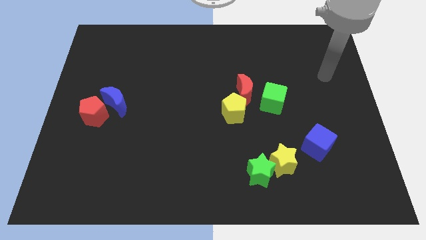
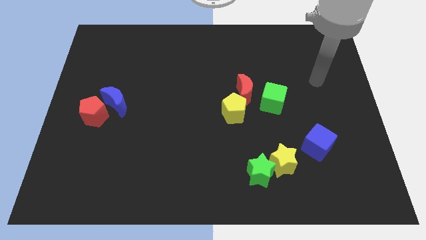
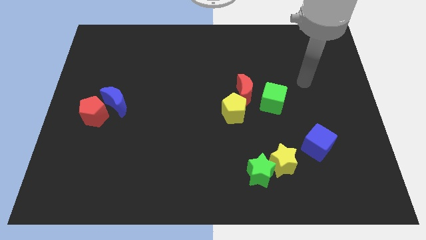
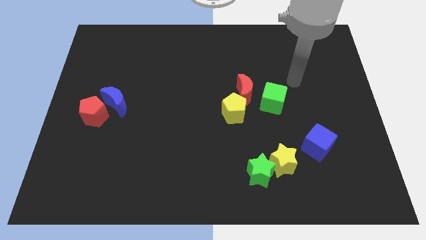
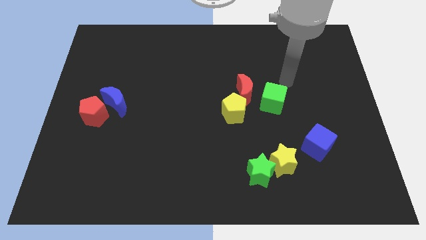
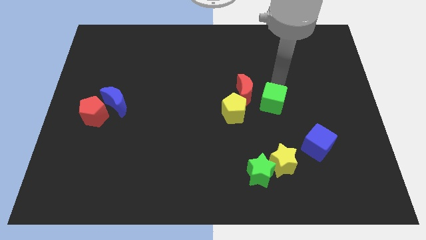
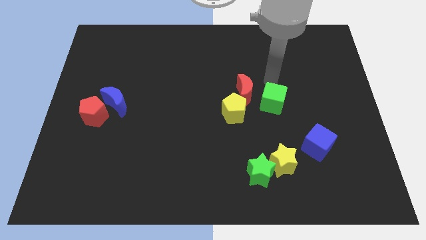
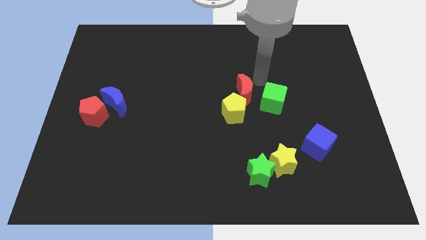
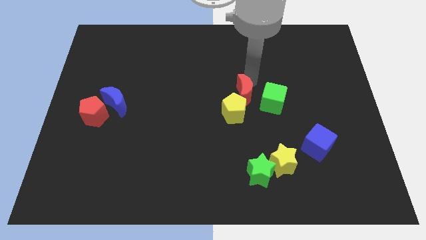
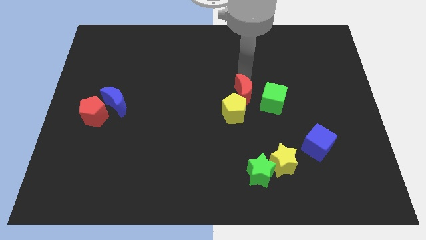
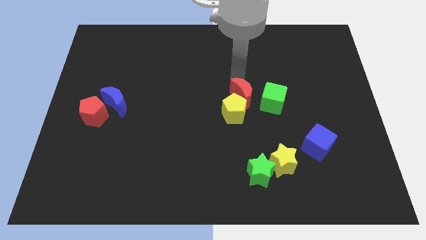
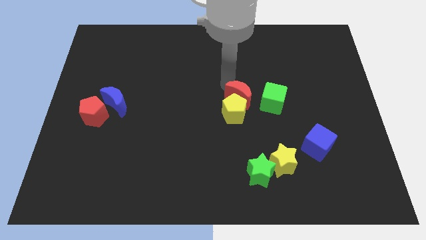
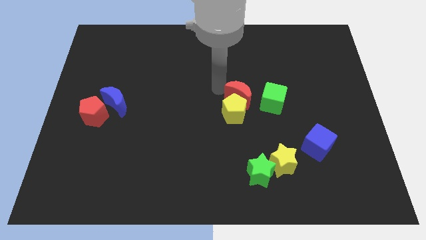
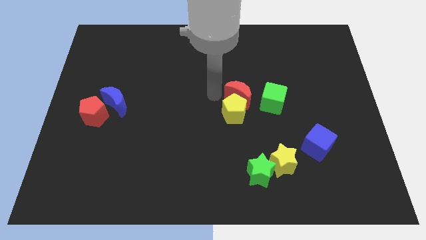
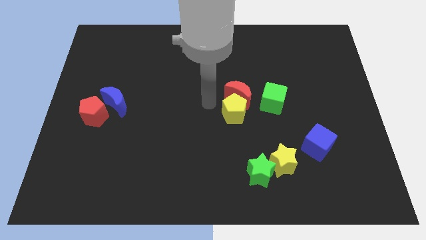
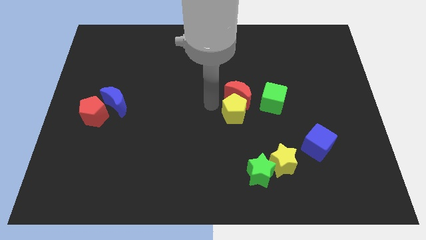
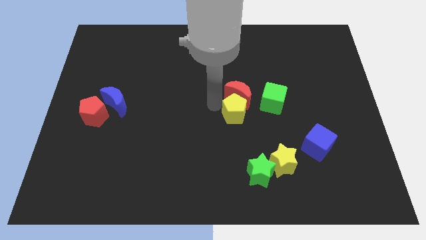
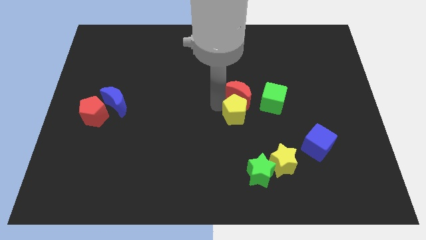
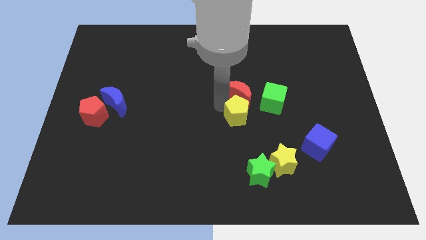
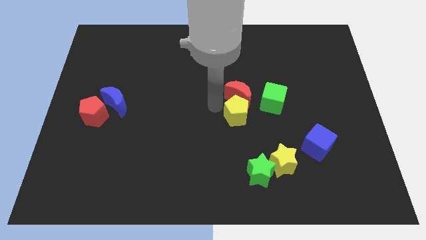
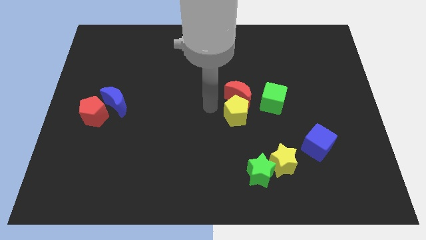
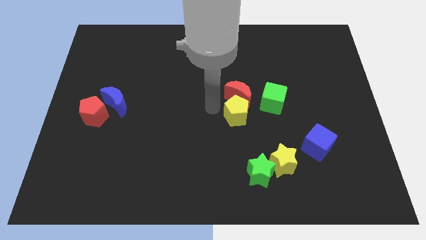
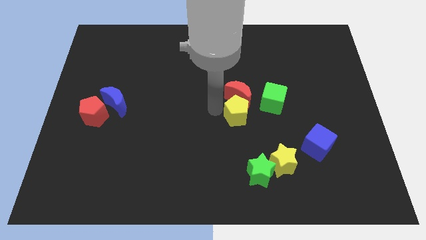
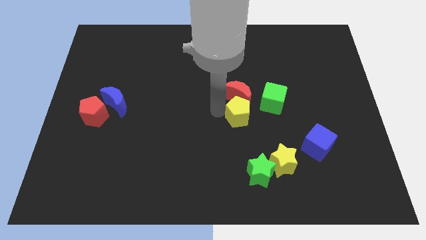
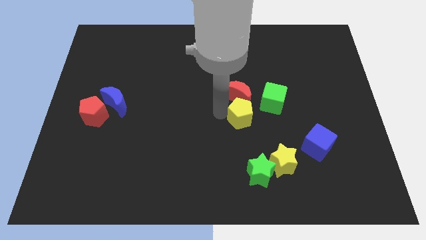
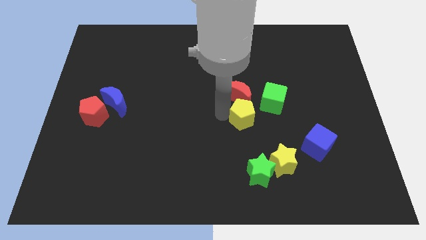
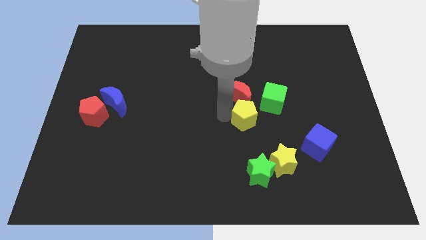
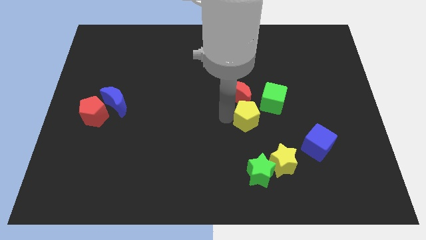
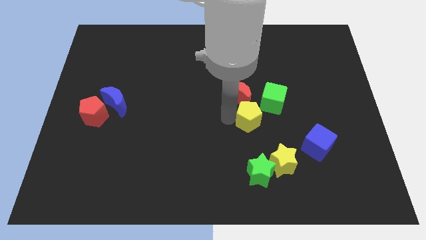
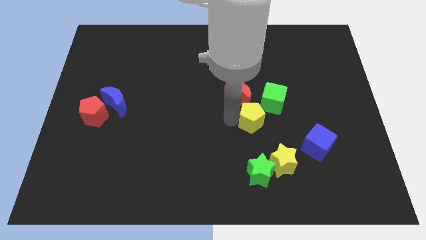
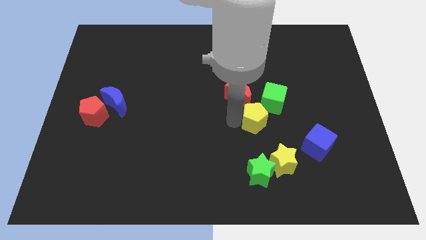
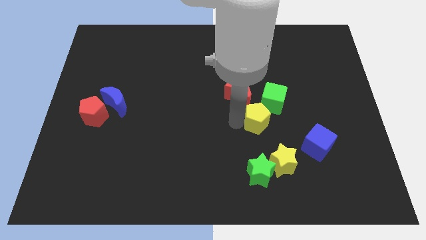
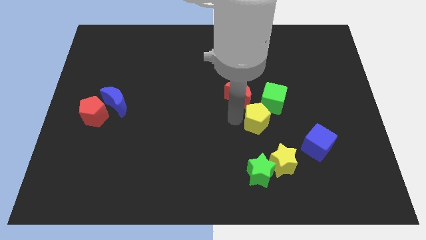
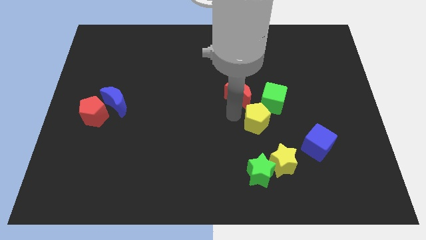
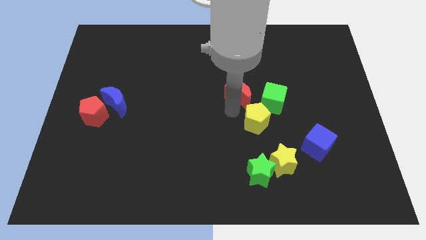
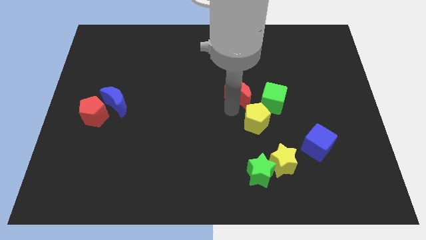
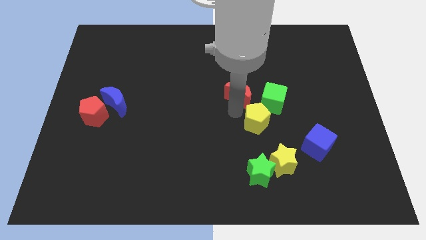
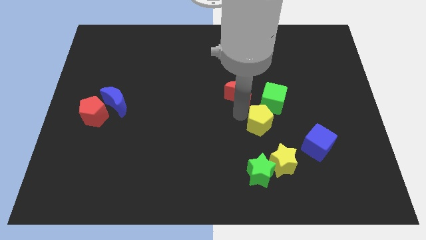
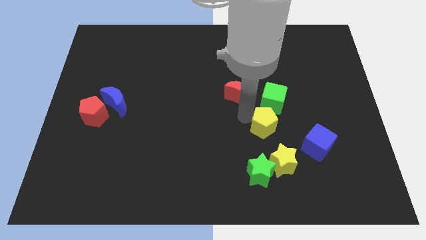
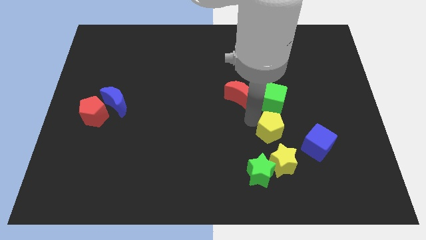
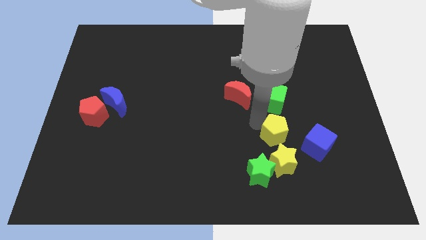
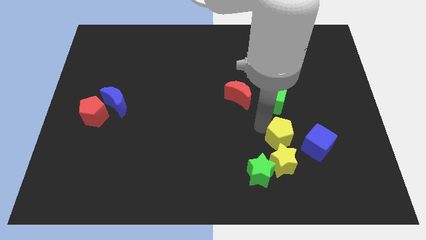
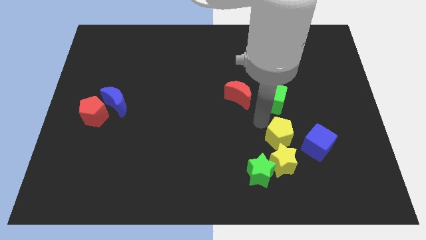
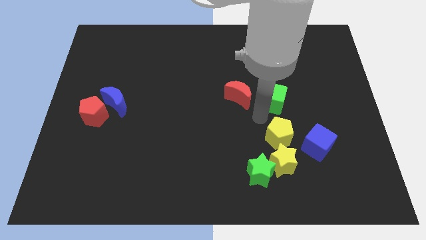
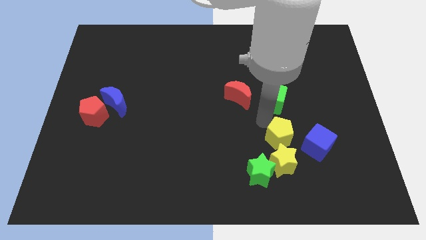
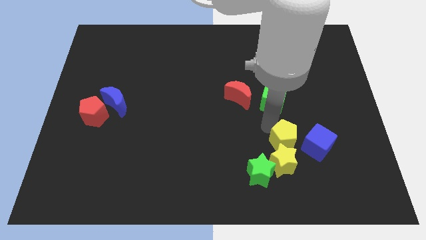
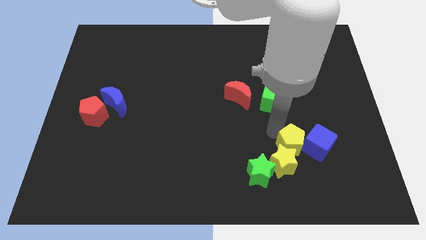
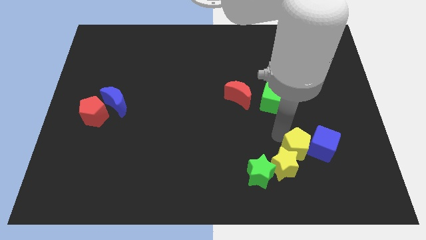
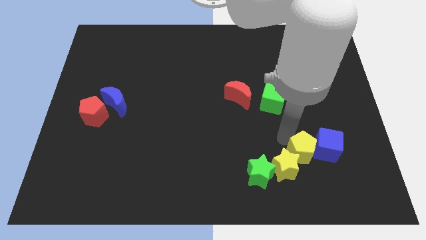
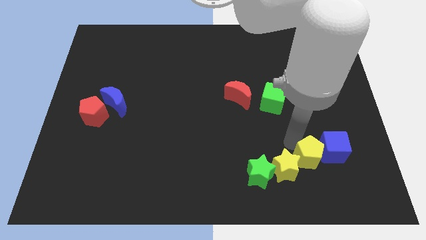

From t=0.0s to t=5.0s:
put the yellow pentagon right of the green star

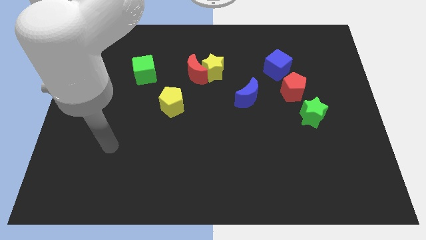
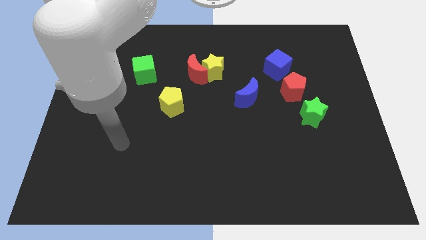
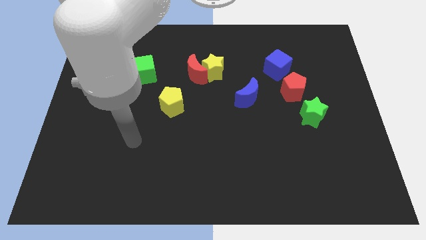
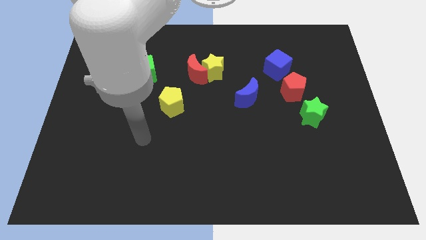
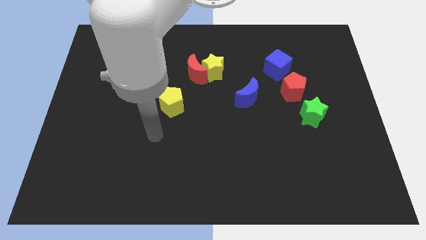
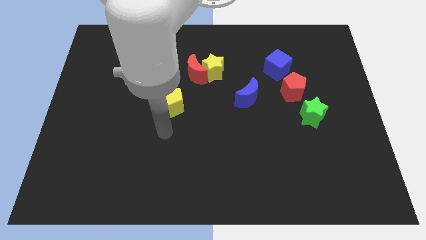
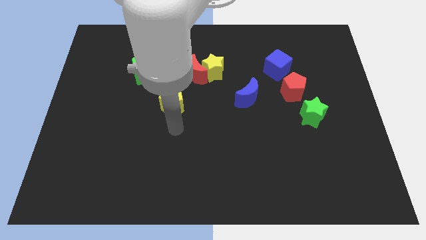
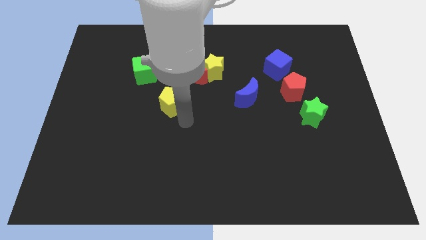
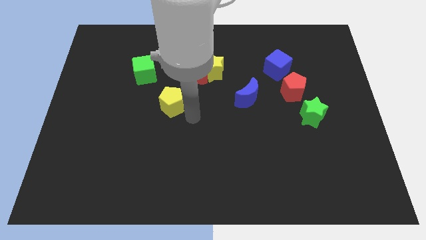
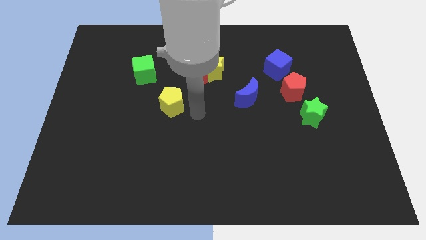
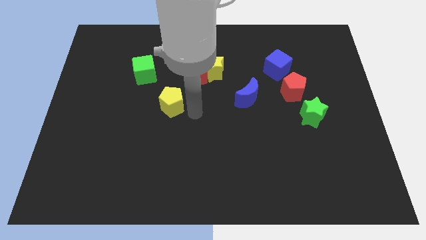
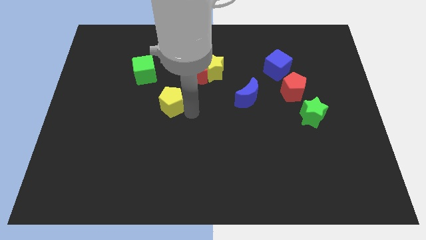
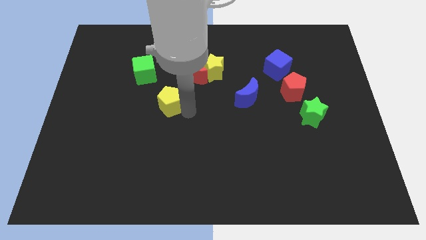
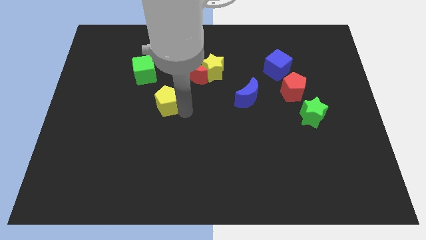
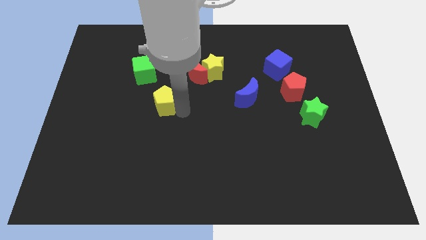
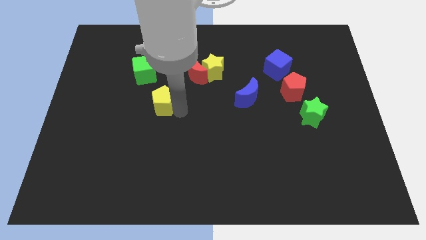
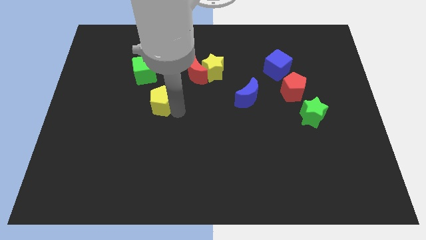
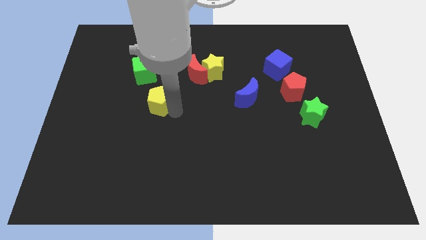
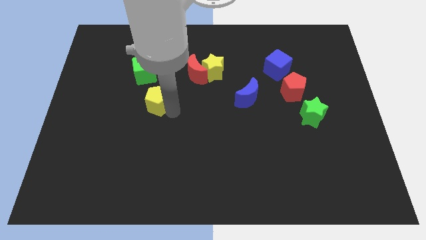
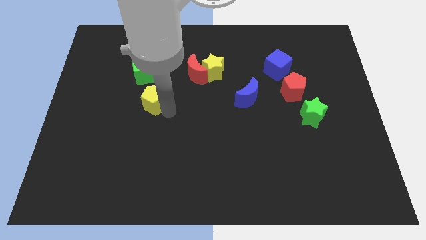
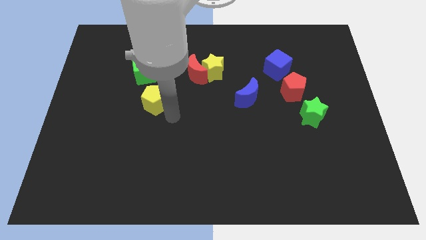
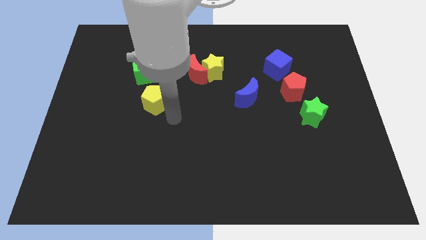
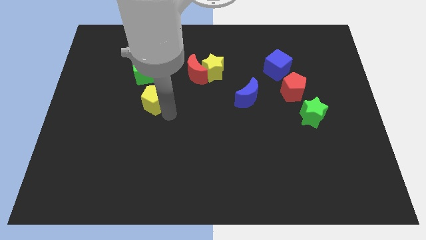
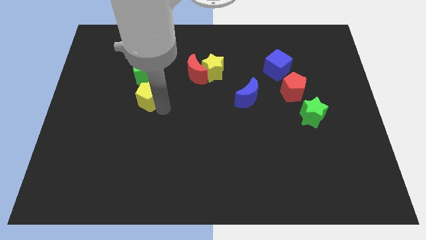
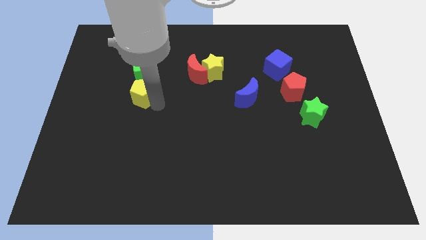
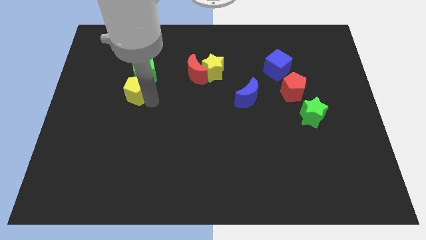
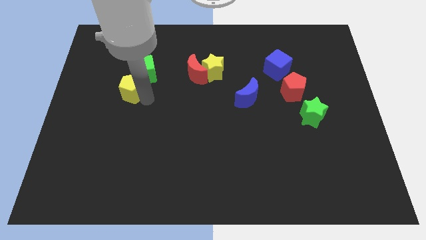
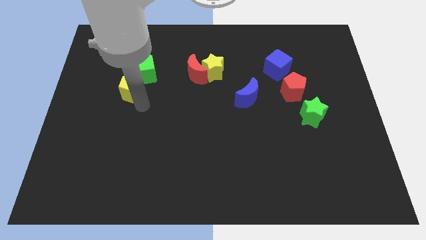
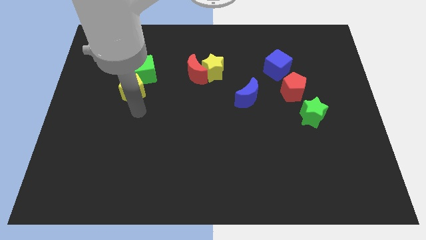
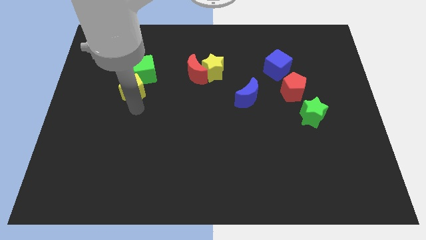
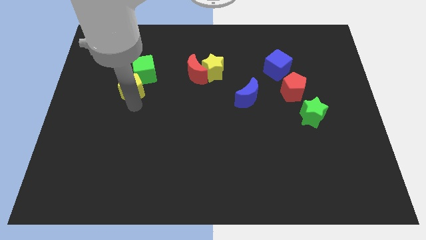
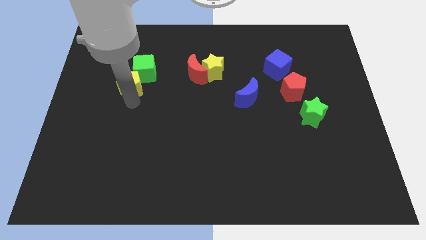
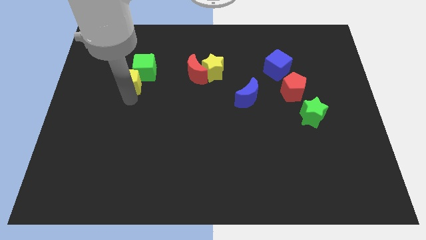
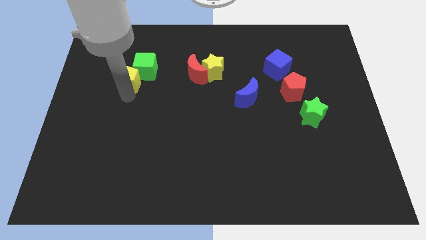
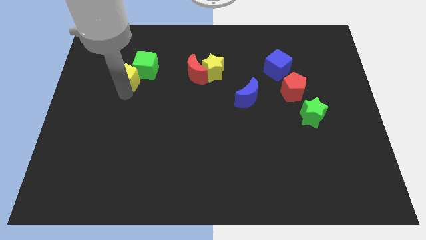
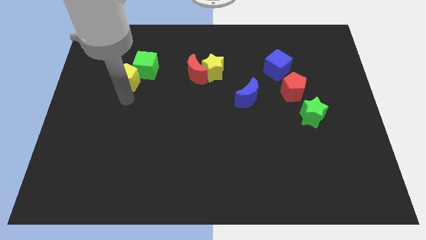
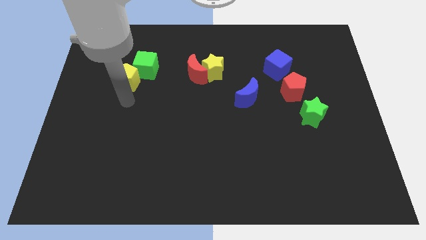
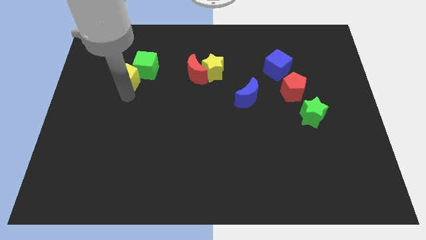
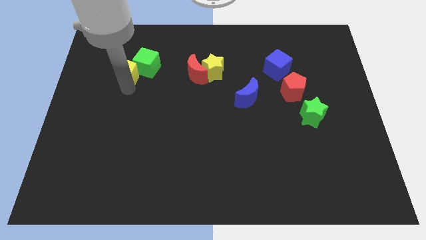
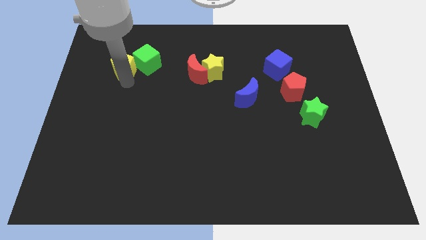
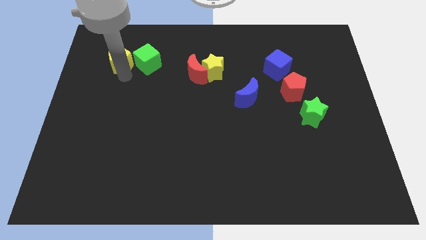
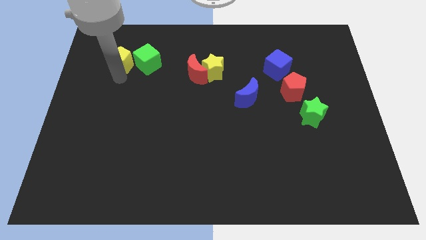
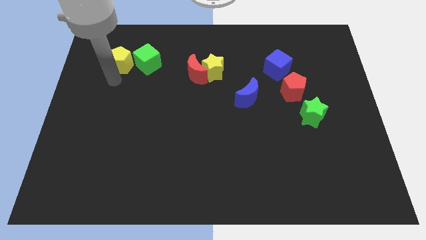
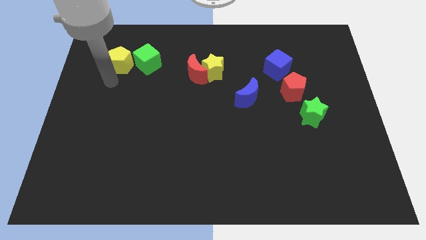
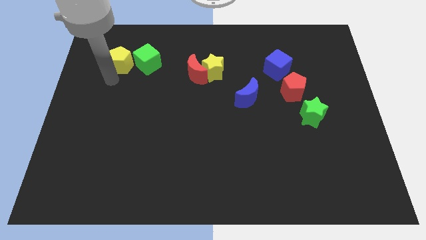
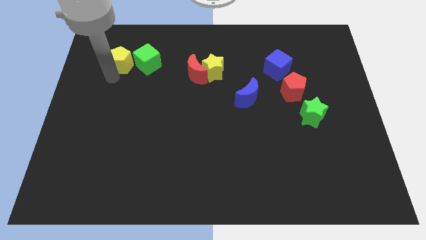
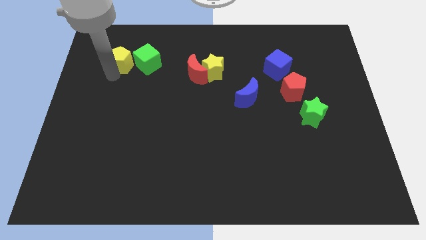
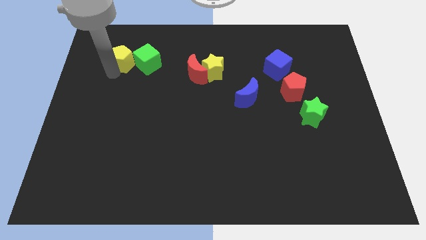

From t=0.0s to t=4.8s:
put the yellow pentagon diagonally up and to the left of the green cube
